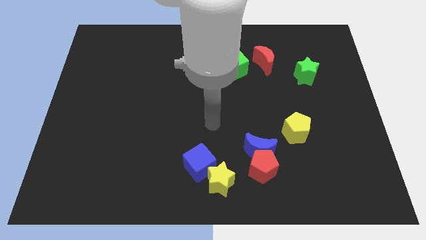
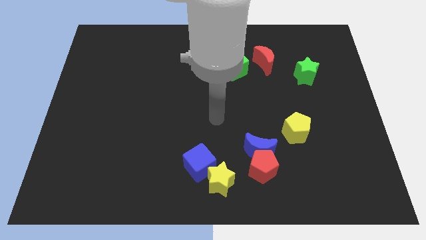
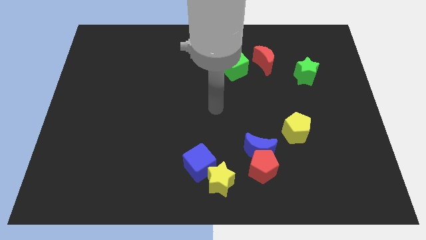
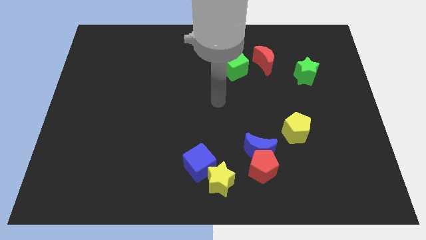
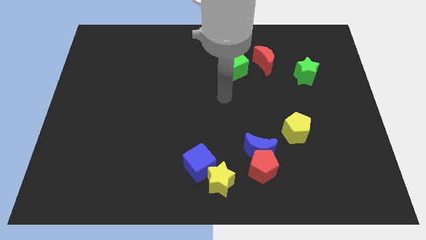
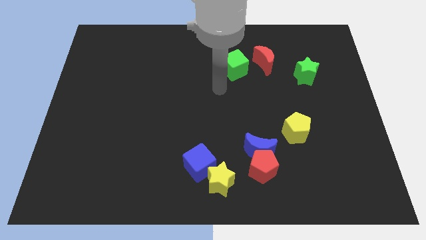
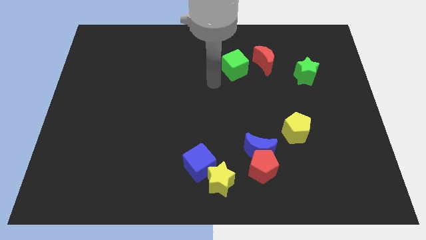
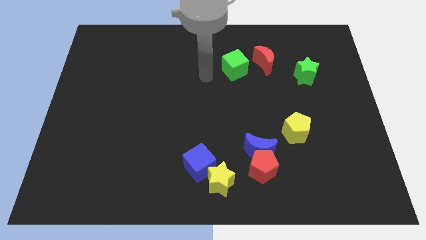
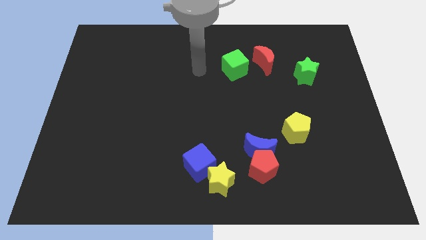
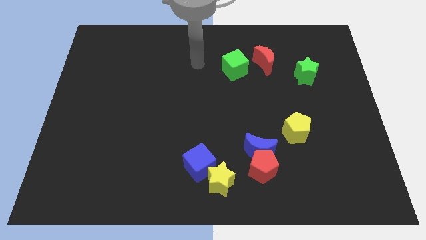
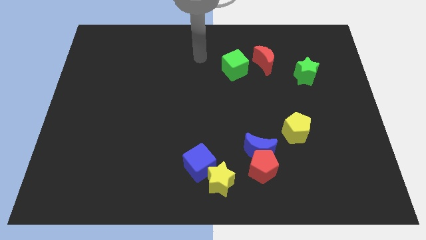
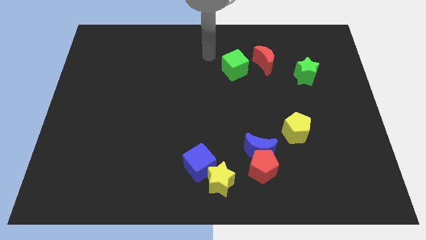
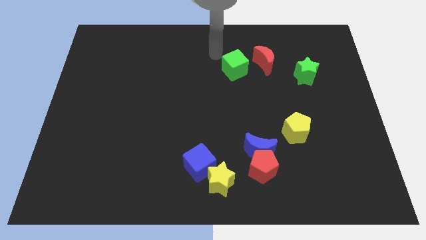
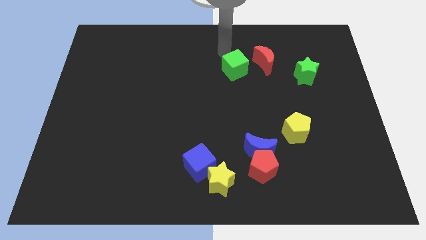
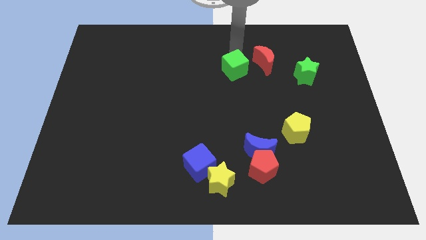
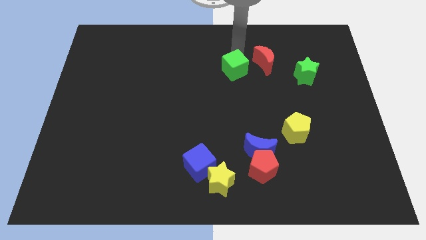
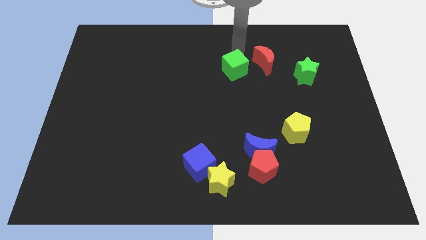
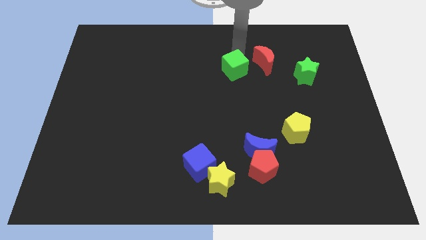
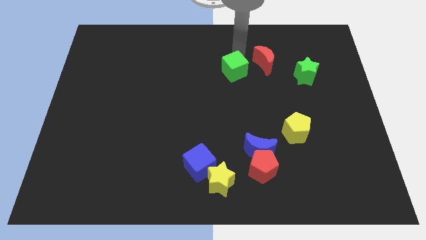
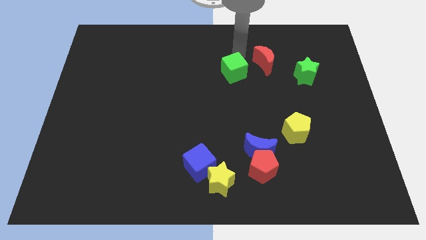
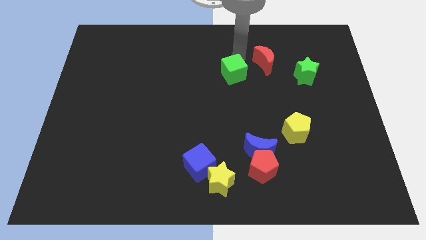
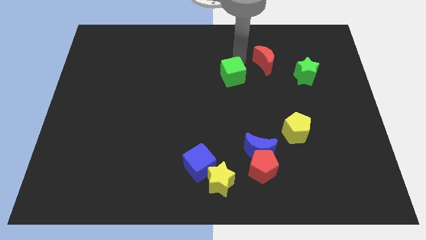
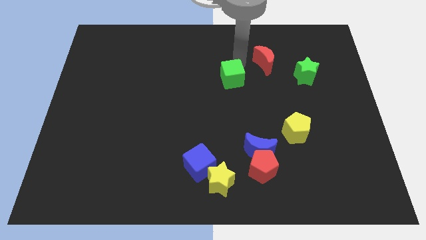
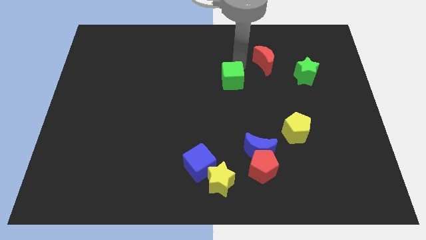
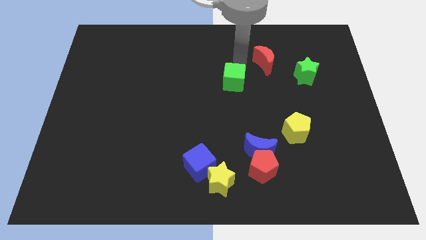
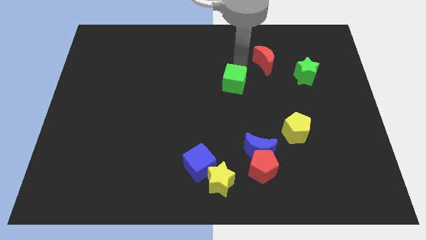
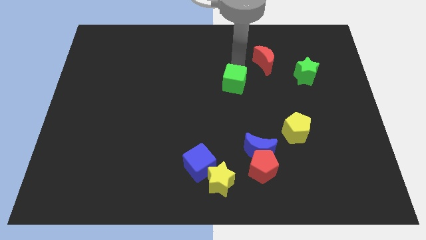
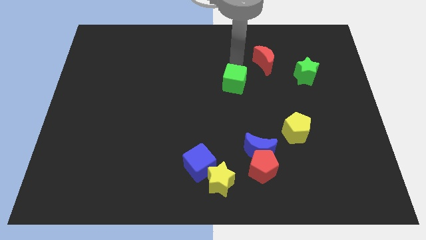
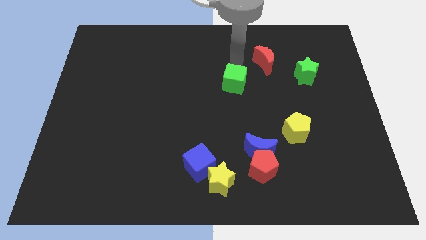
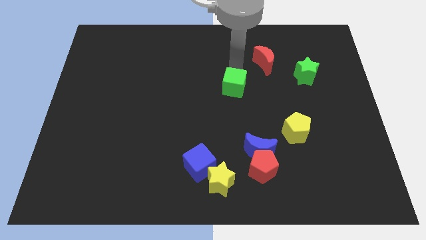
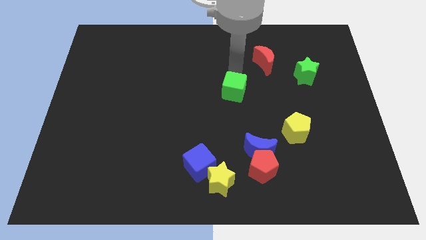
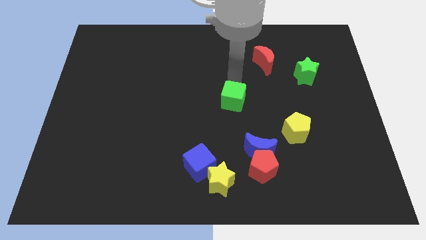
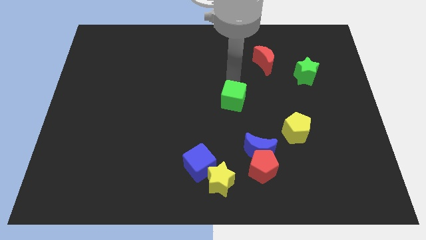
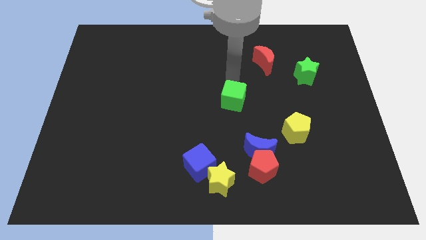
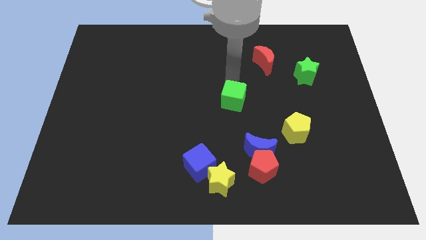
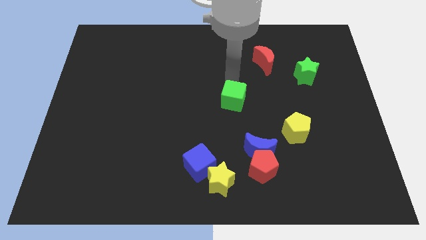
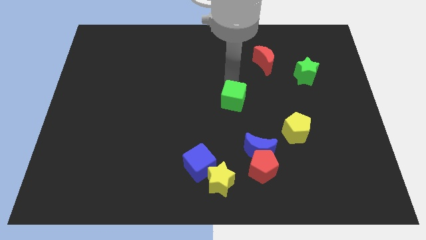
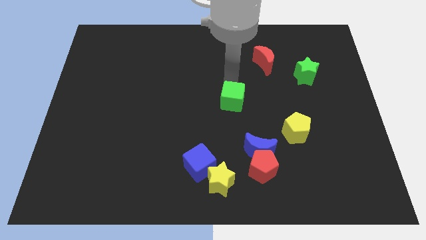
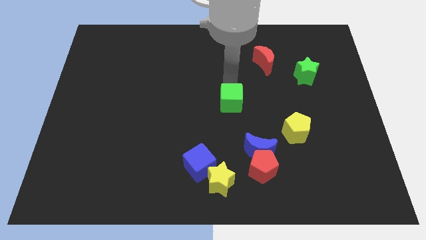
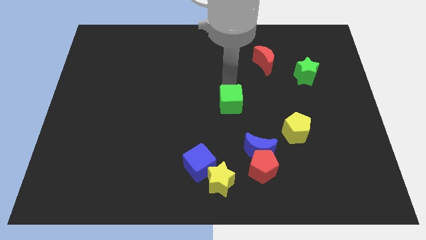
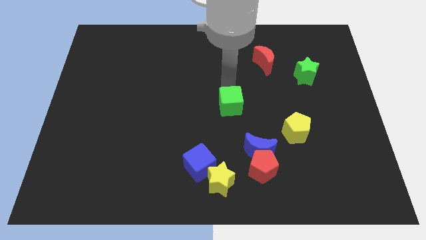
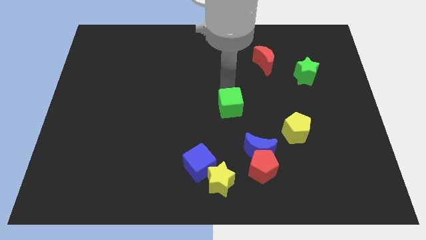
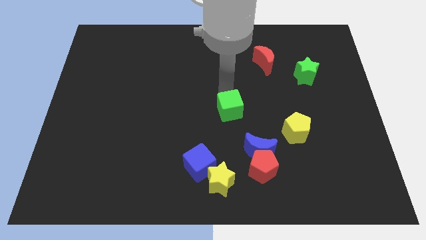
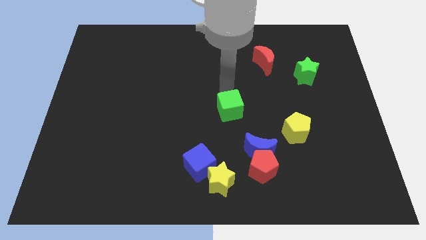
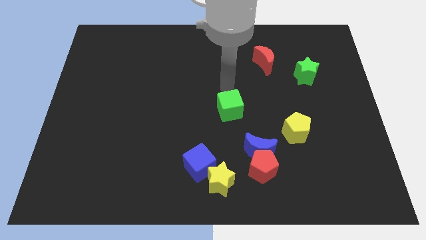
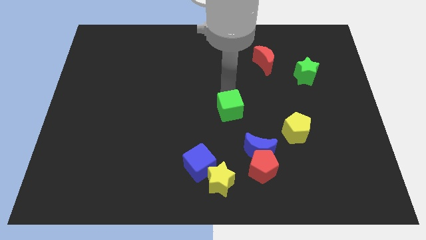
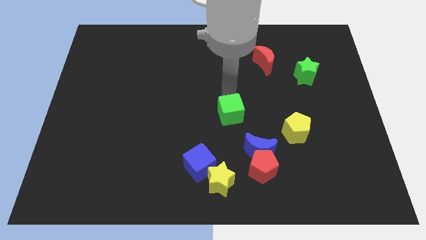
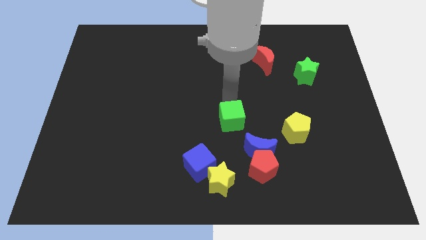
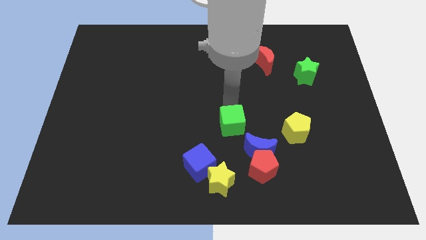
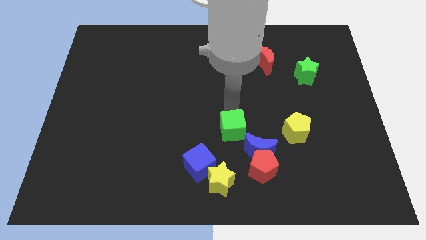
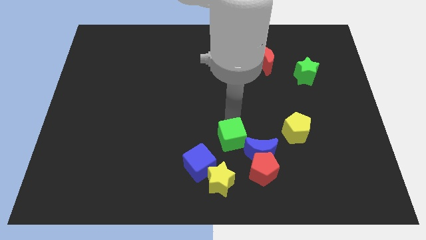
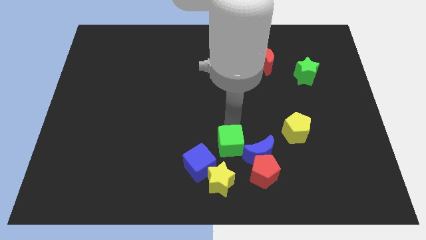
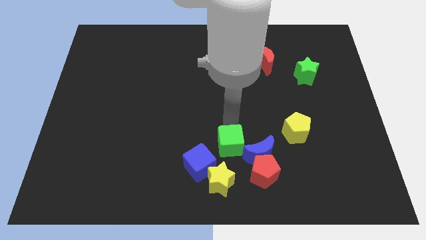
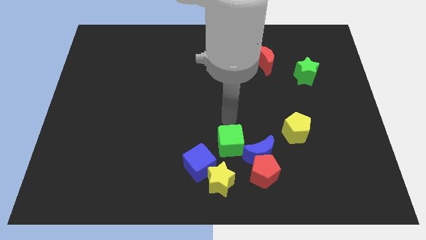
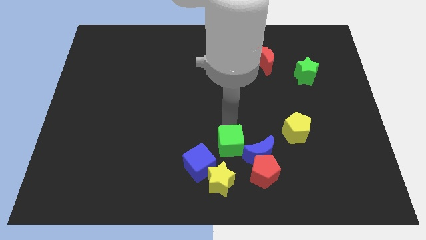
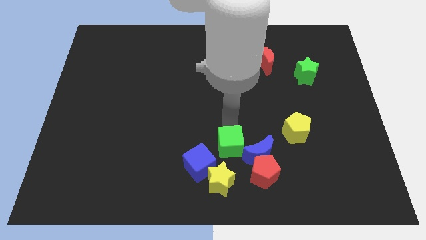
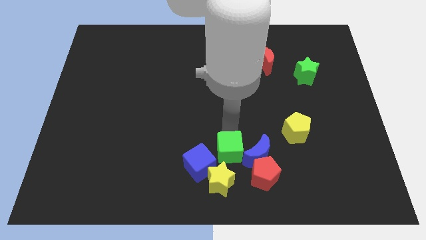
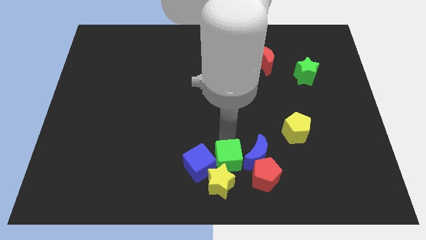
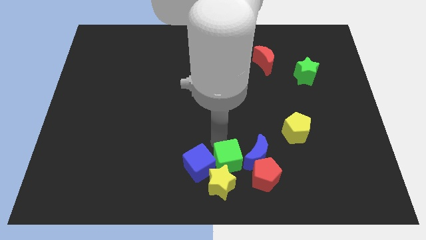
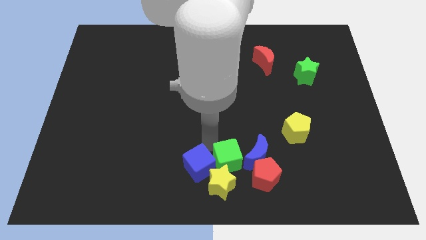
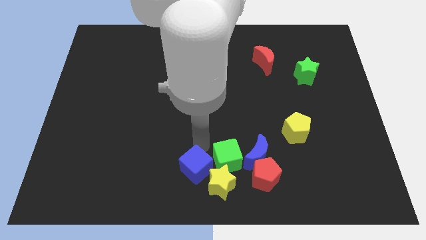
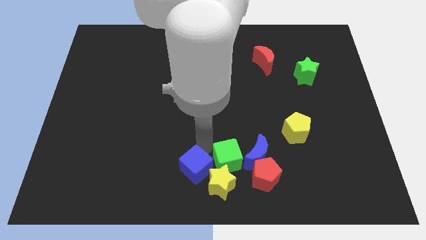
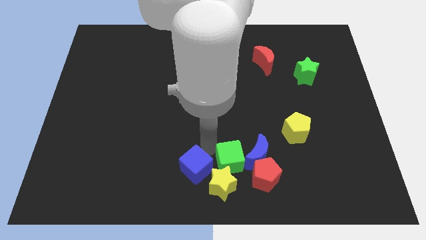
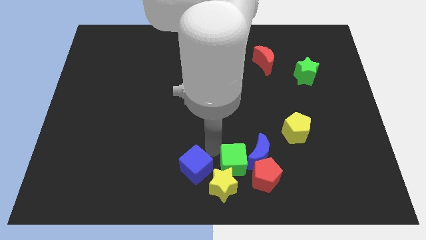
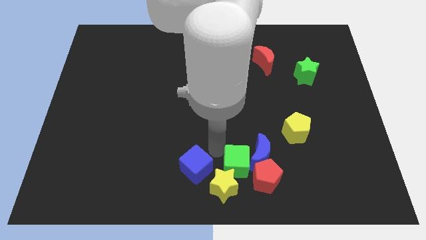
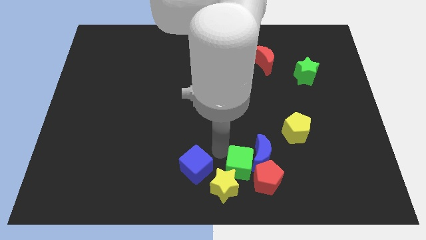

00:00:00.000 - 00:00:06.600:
push the green cube to the red pentagon

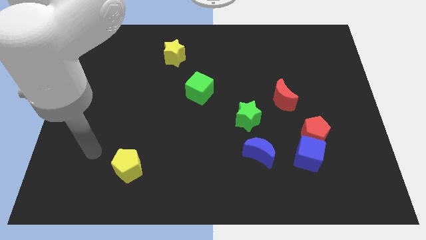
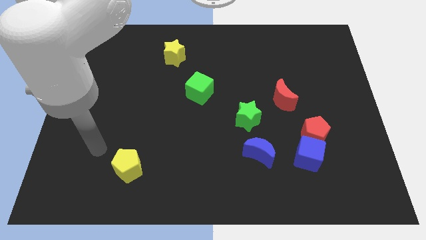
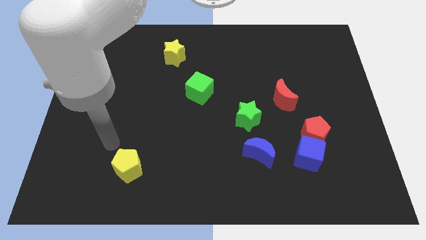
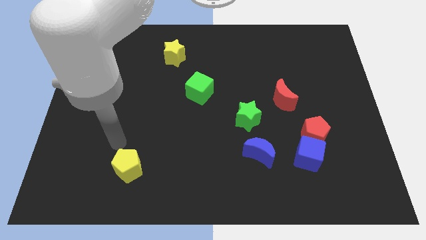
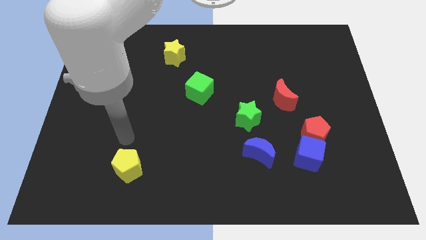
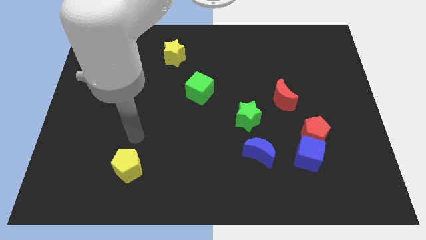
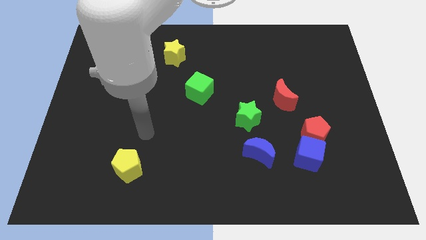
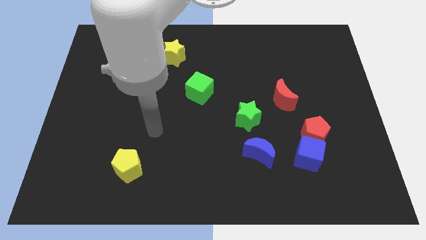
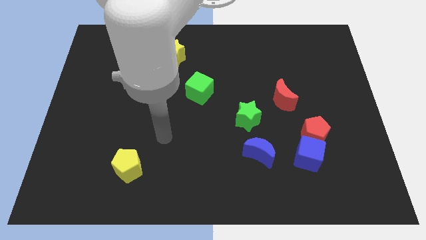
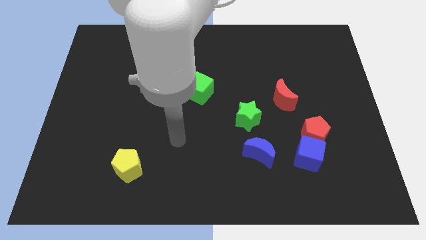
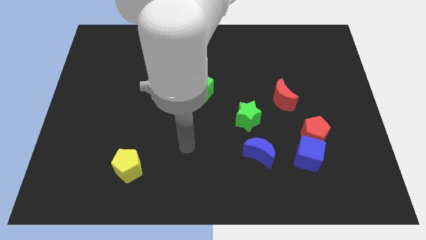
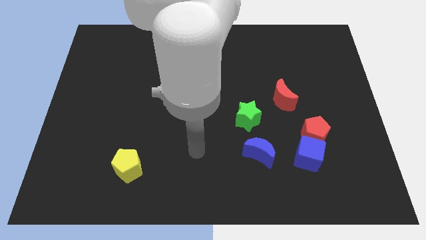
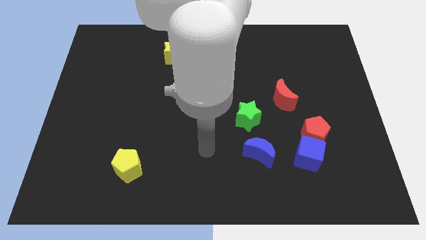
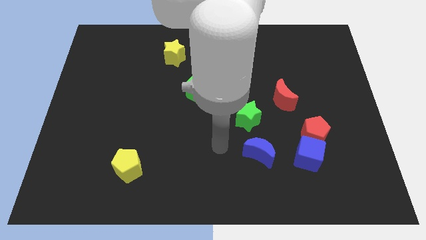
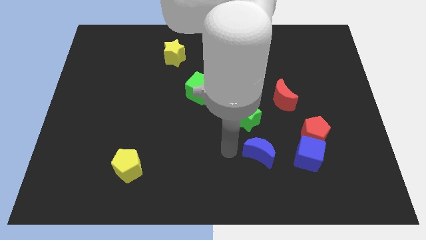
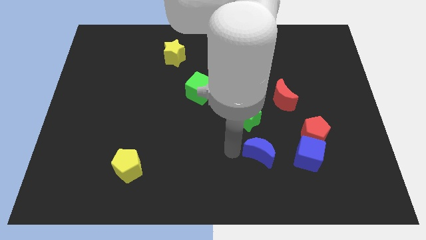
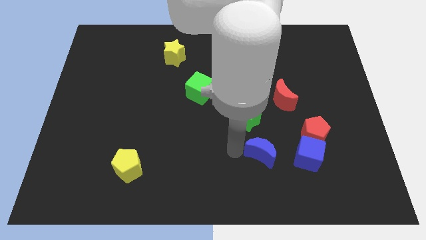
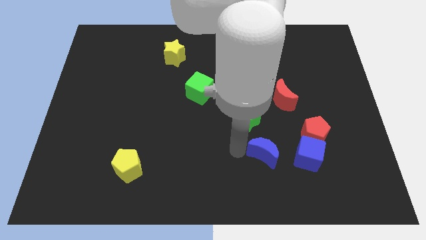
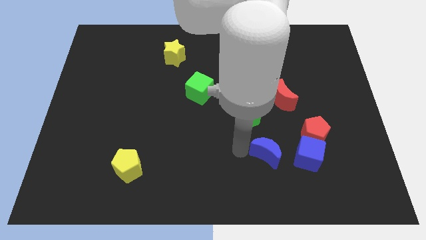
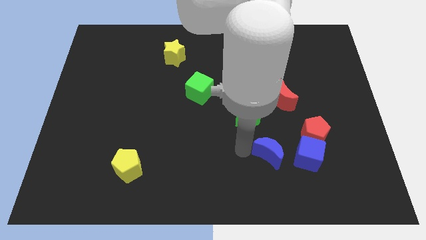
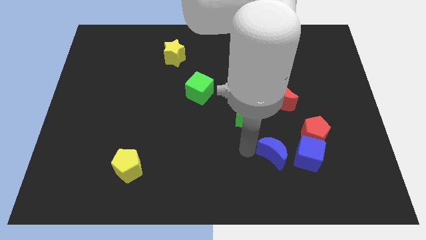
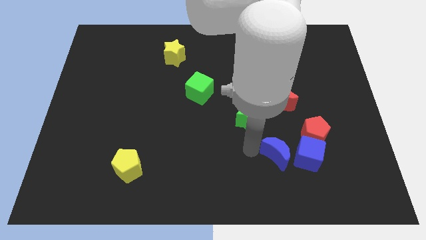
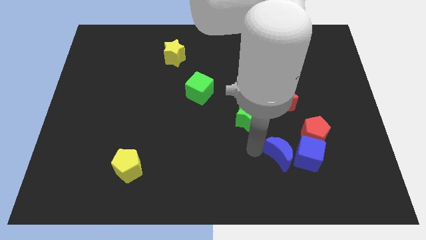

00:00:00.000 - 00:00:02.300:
slide the blue moon towards the blue cube
